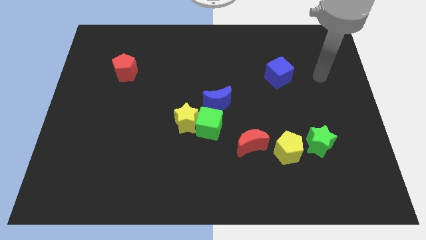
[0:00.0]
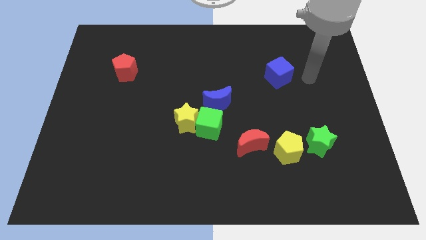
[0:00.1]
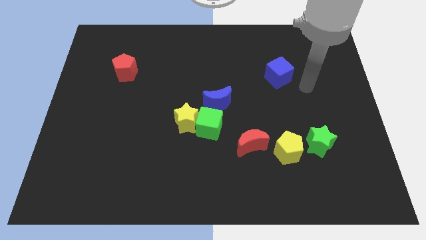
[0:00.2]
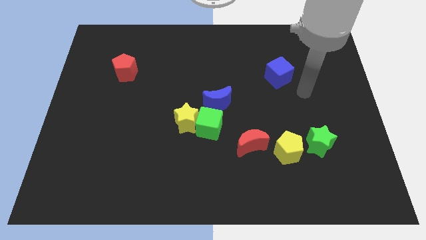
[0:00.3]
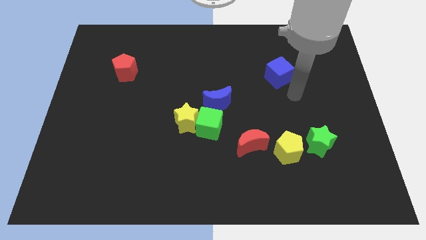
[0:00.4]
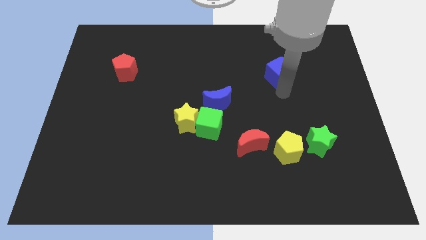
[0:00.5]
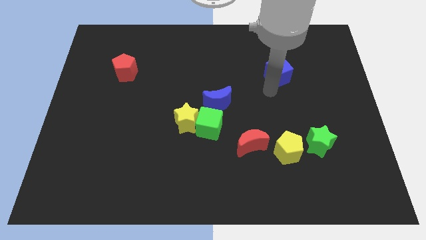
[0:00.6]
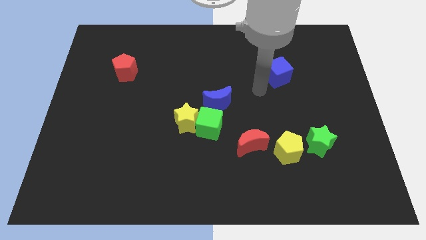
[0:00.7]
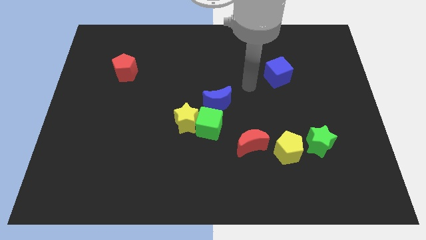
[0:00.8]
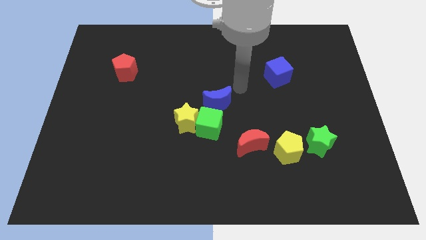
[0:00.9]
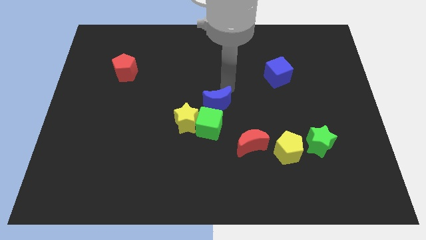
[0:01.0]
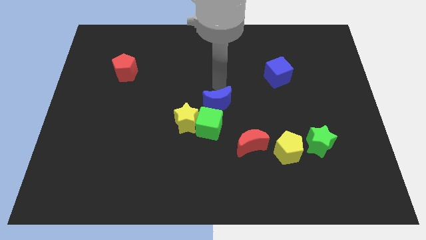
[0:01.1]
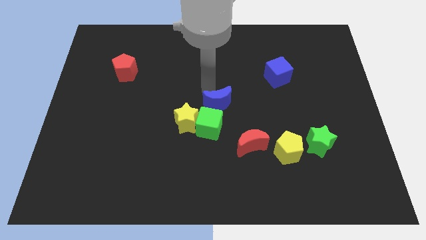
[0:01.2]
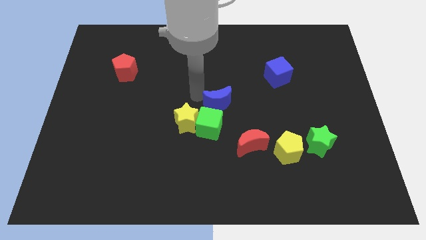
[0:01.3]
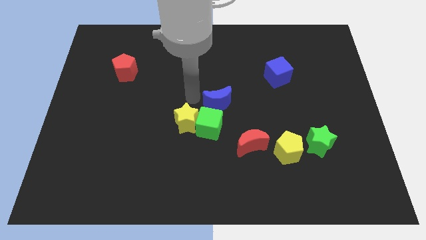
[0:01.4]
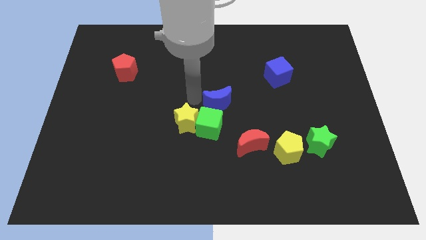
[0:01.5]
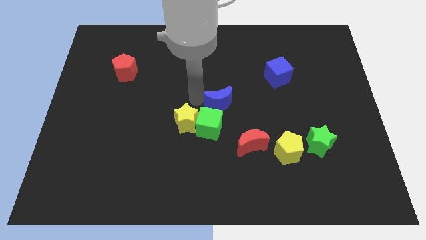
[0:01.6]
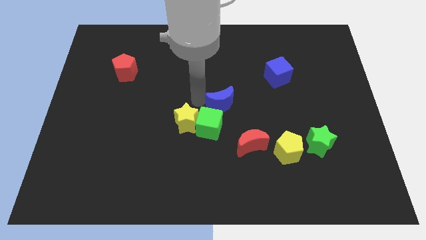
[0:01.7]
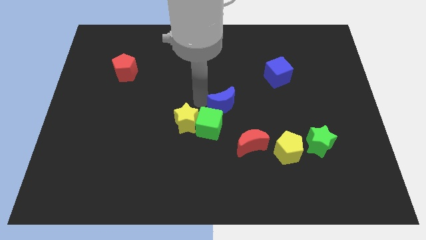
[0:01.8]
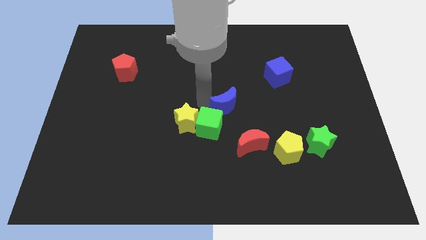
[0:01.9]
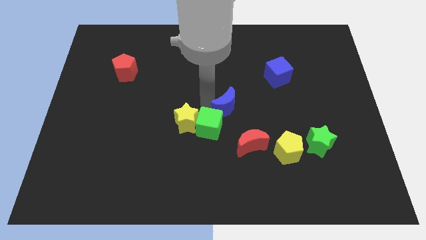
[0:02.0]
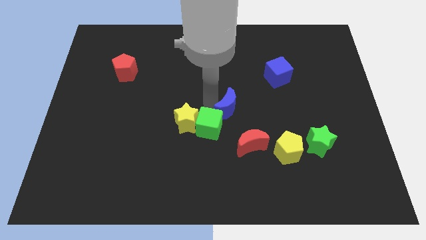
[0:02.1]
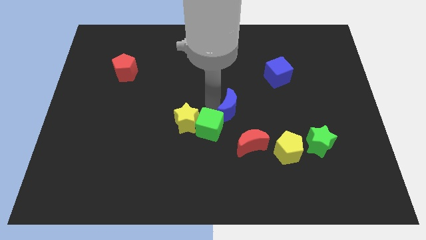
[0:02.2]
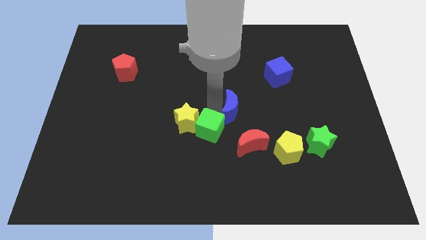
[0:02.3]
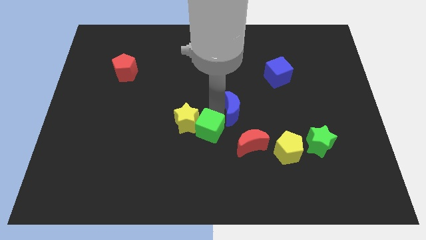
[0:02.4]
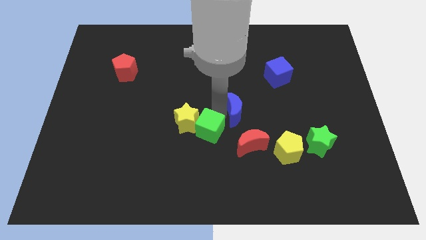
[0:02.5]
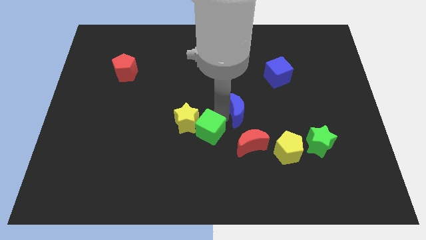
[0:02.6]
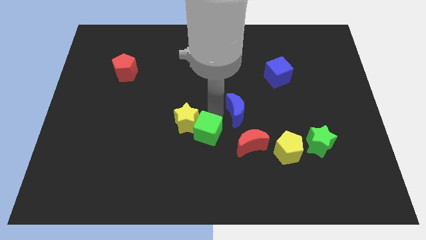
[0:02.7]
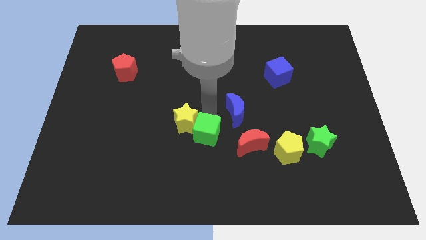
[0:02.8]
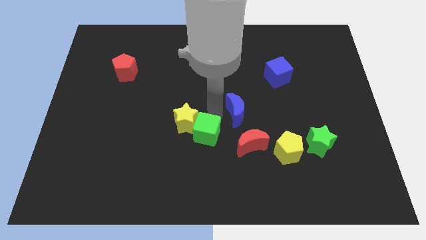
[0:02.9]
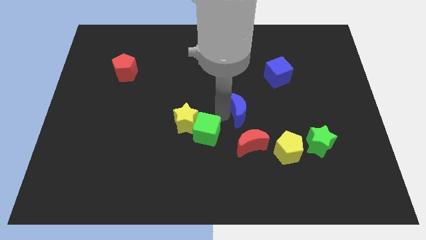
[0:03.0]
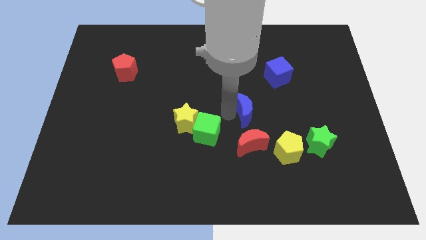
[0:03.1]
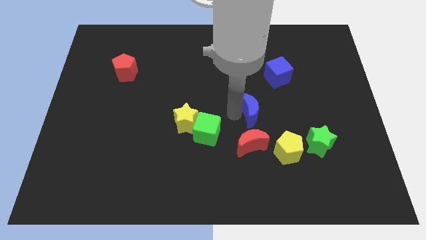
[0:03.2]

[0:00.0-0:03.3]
slide the blue moon a little bit to the right

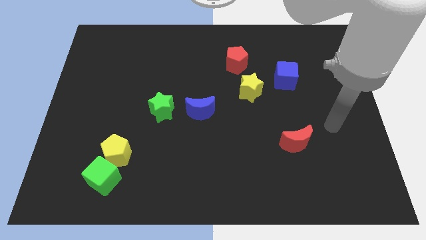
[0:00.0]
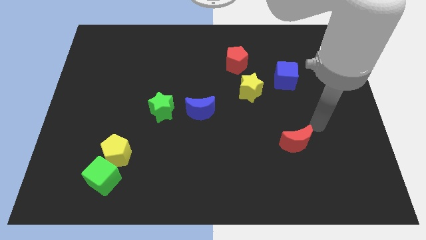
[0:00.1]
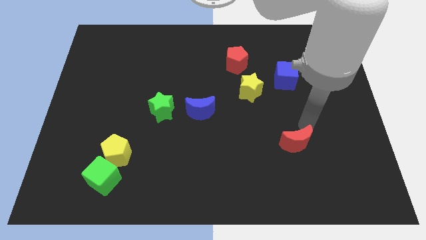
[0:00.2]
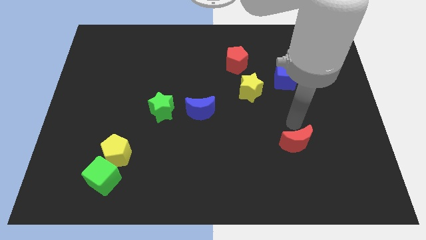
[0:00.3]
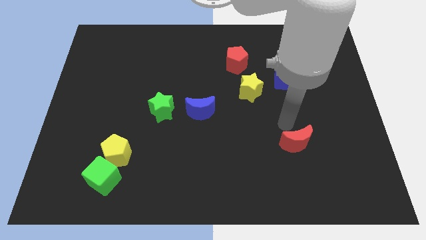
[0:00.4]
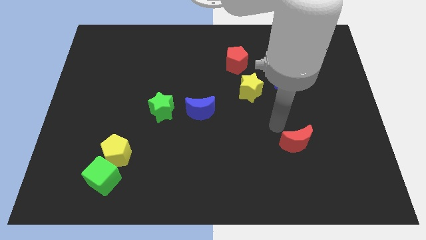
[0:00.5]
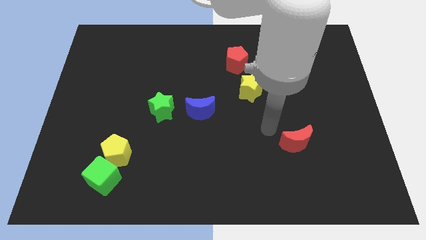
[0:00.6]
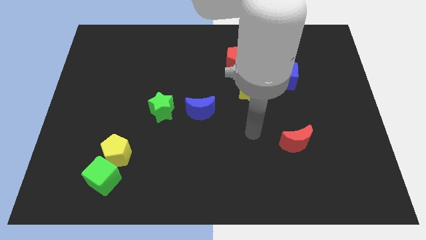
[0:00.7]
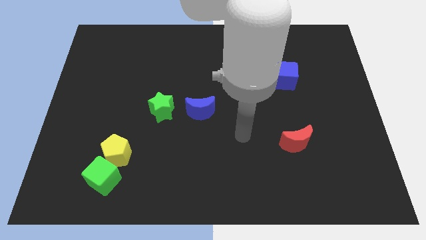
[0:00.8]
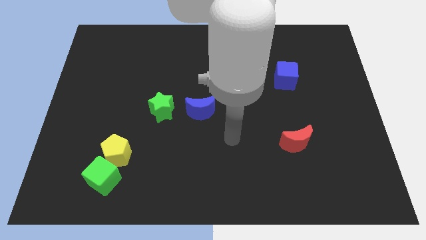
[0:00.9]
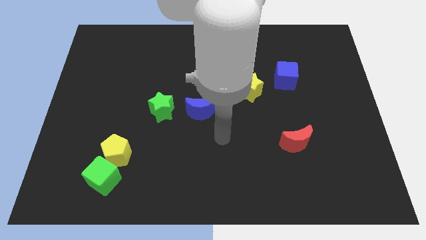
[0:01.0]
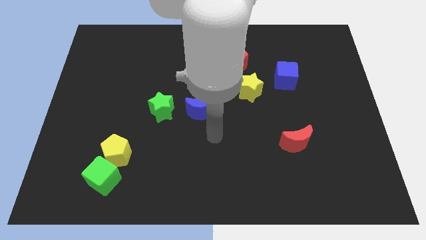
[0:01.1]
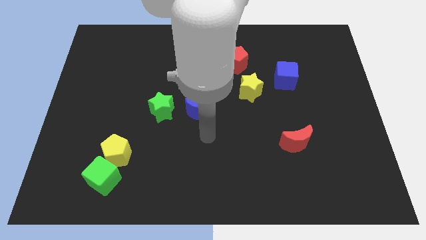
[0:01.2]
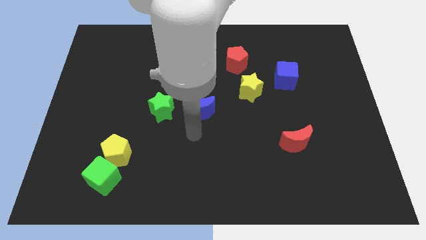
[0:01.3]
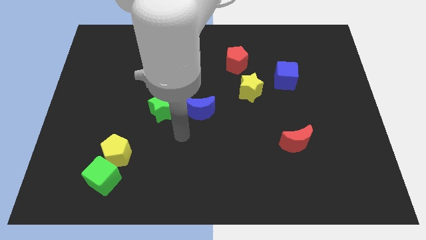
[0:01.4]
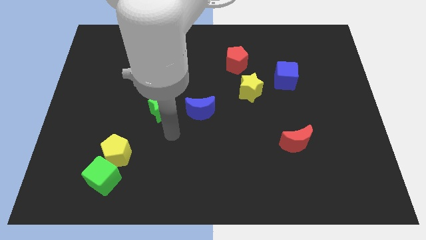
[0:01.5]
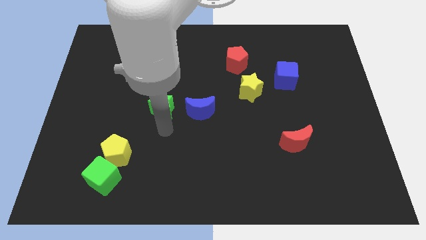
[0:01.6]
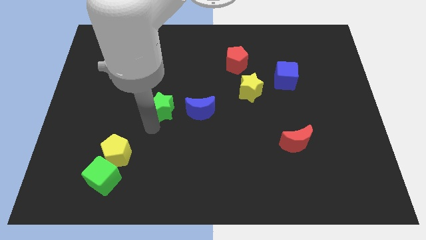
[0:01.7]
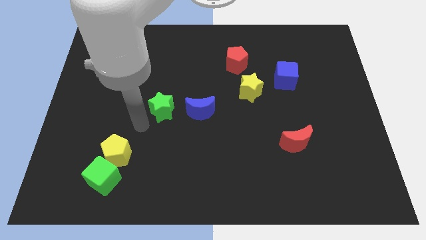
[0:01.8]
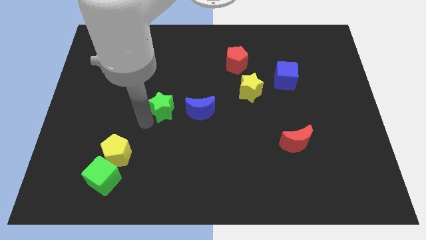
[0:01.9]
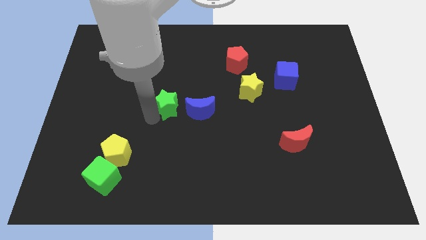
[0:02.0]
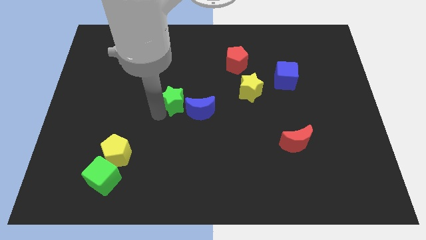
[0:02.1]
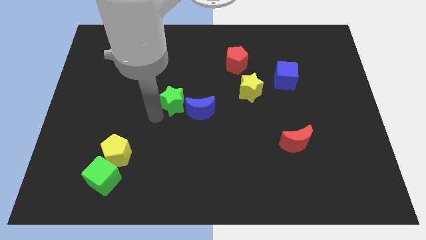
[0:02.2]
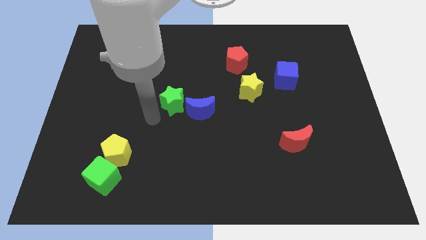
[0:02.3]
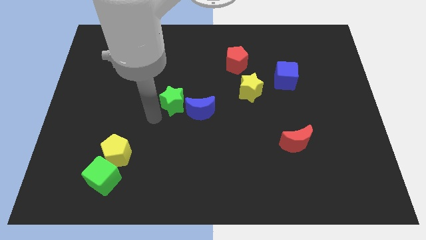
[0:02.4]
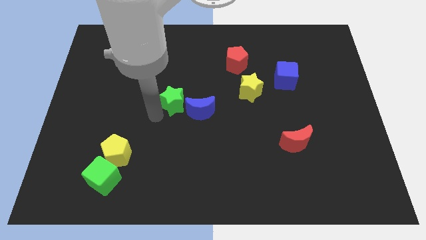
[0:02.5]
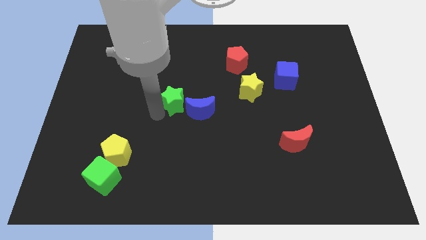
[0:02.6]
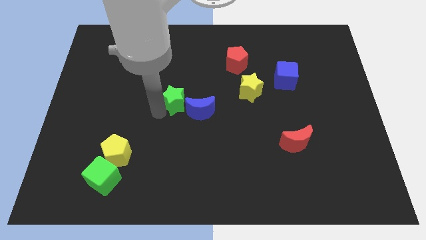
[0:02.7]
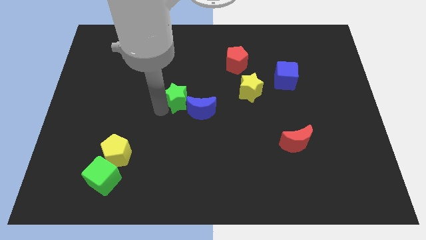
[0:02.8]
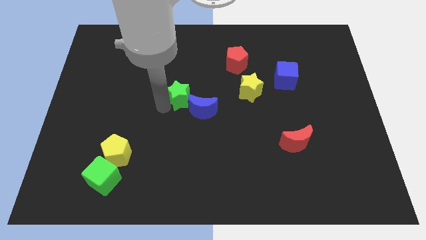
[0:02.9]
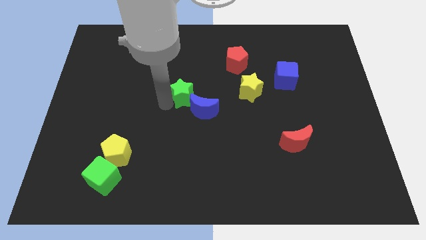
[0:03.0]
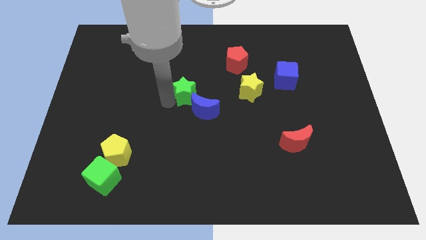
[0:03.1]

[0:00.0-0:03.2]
push the green star a bit up and to the right diagonally

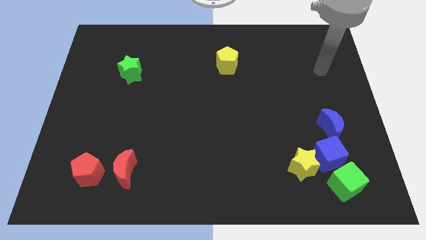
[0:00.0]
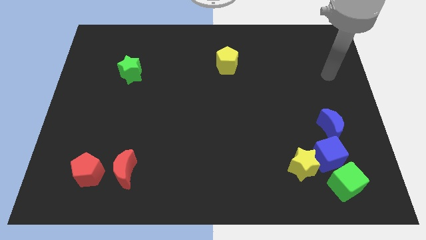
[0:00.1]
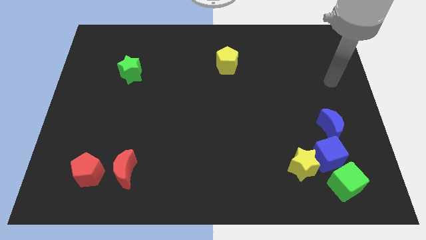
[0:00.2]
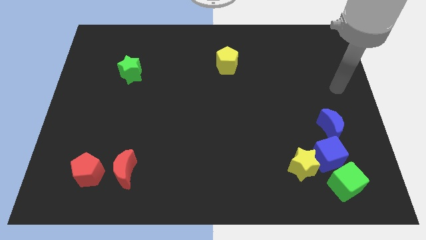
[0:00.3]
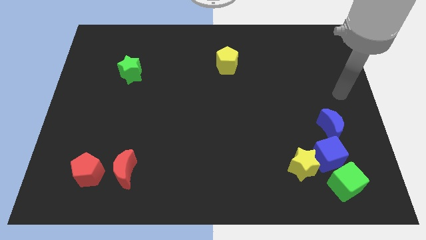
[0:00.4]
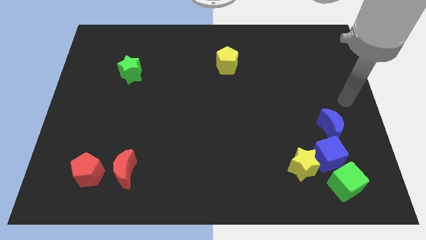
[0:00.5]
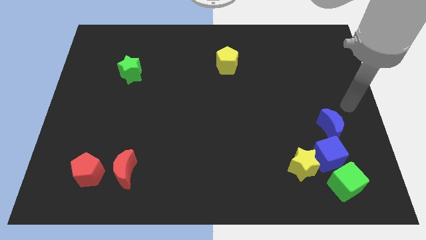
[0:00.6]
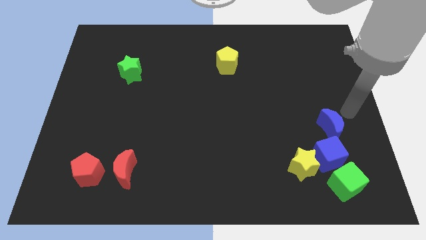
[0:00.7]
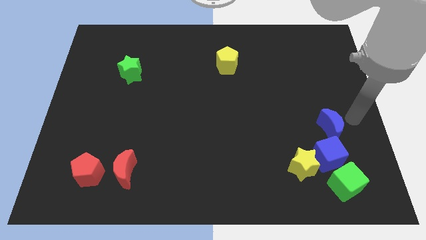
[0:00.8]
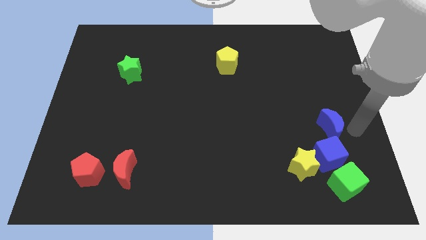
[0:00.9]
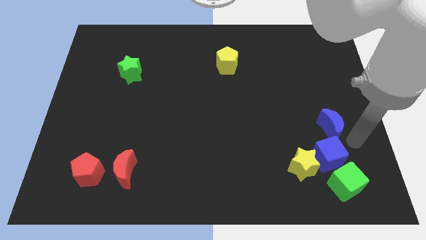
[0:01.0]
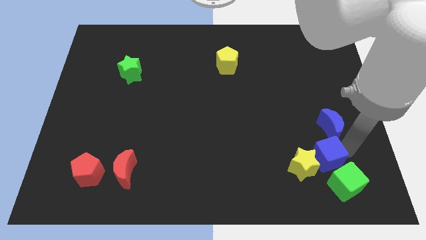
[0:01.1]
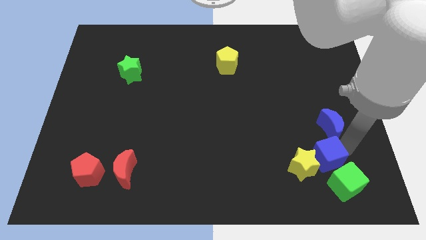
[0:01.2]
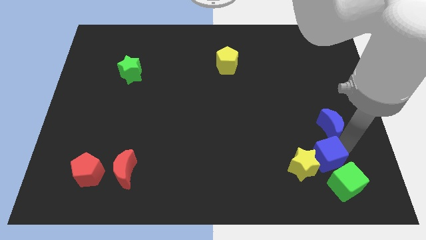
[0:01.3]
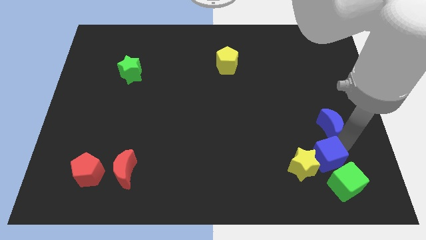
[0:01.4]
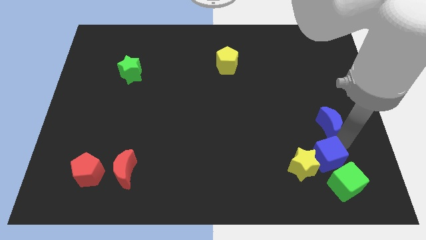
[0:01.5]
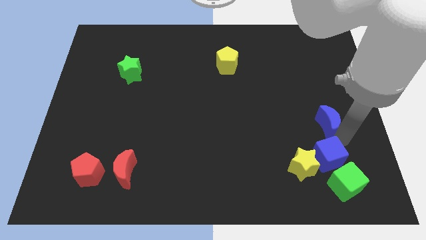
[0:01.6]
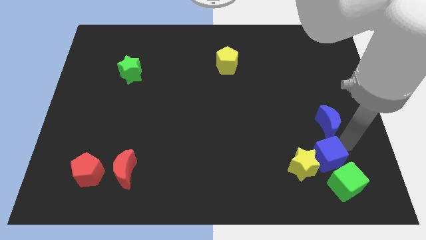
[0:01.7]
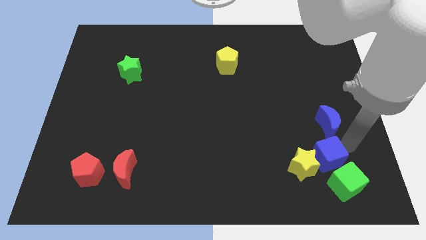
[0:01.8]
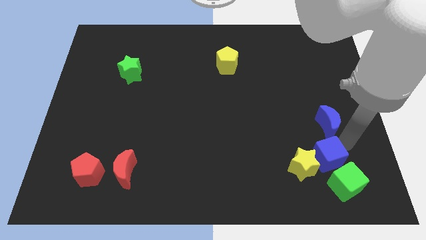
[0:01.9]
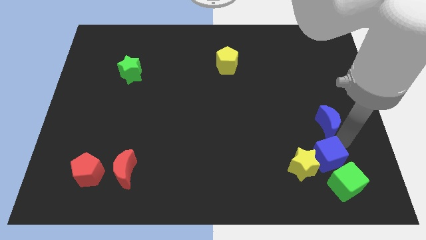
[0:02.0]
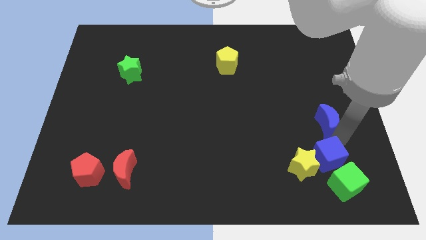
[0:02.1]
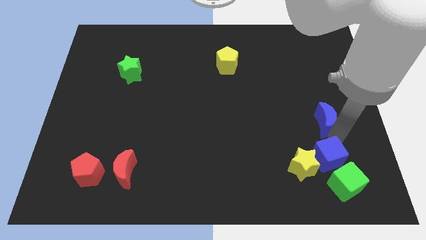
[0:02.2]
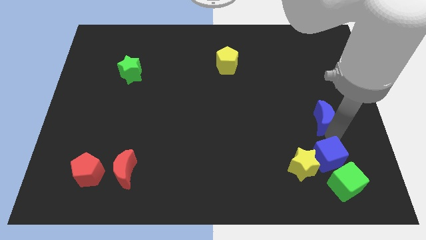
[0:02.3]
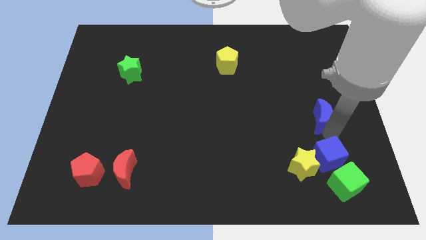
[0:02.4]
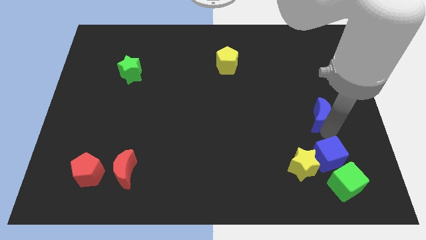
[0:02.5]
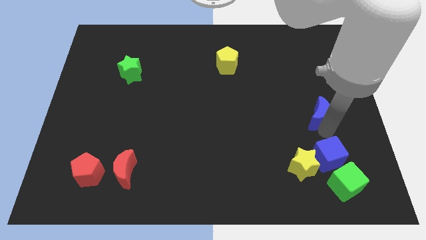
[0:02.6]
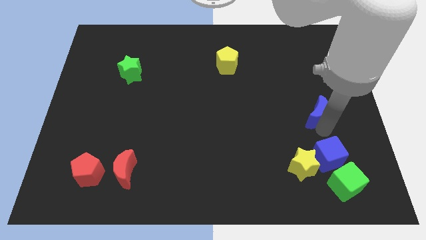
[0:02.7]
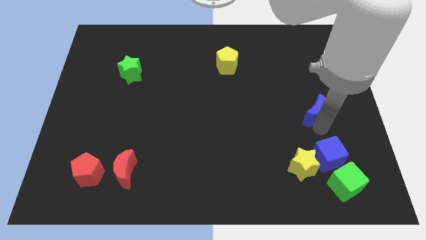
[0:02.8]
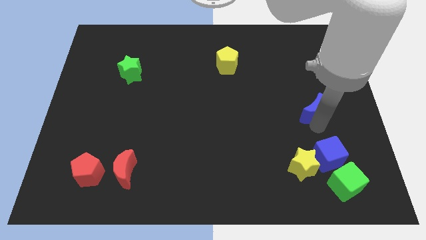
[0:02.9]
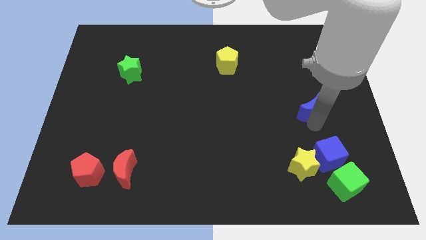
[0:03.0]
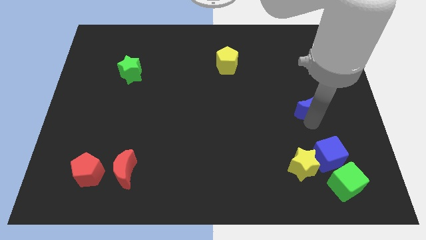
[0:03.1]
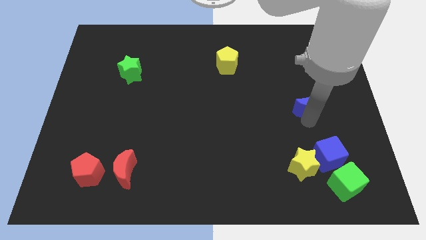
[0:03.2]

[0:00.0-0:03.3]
move the blue moon a little bit upwards and left diagonally
